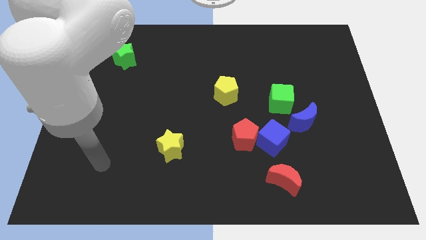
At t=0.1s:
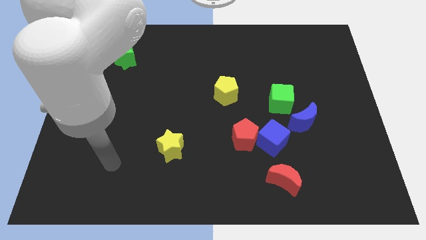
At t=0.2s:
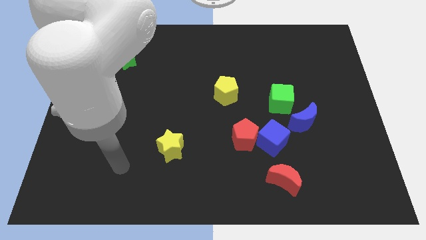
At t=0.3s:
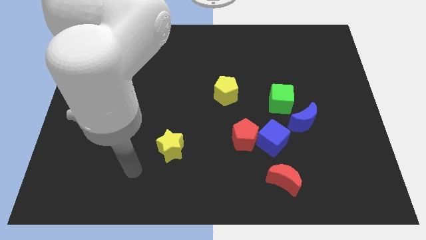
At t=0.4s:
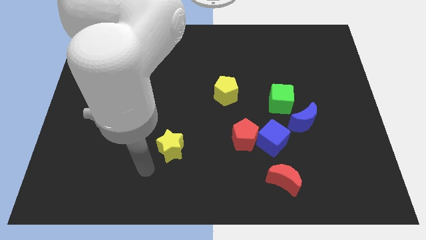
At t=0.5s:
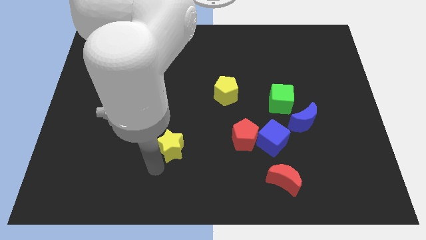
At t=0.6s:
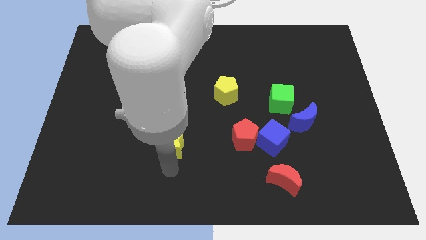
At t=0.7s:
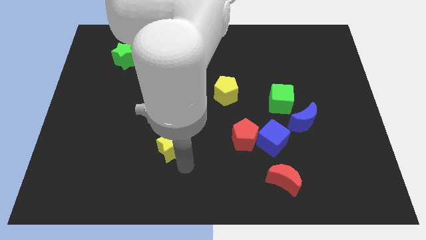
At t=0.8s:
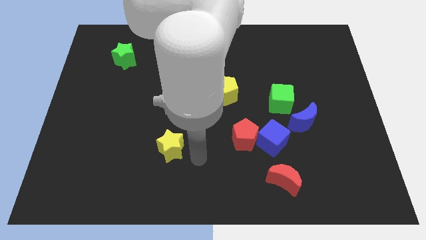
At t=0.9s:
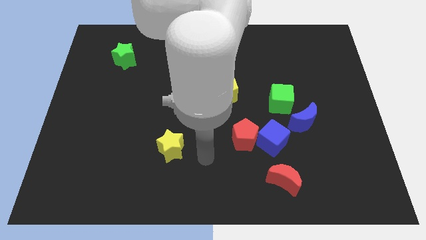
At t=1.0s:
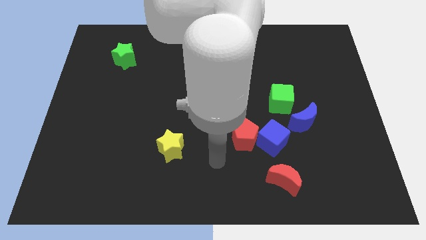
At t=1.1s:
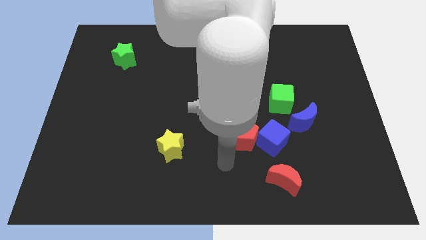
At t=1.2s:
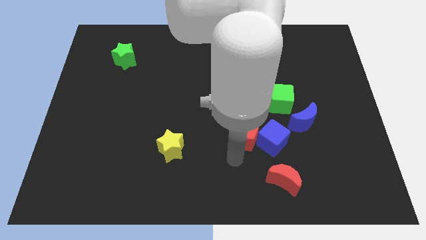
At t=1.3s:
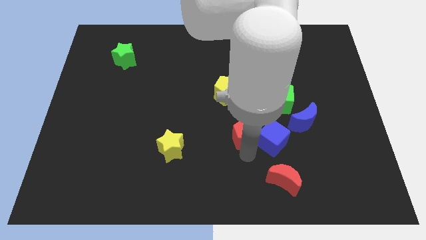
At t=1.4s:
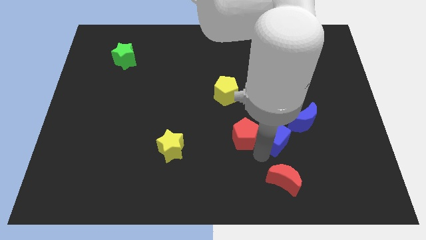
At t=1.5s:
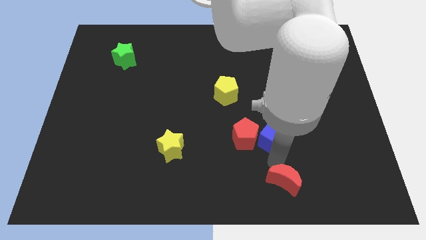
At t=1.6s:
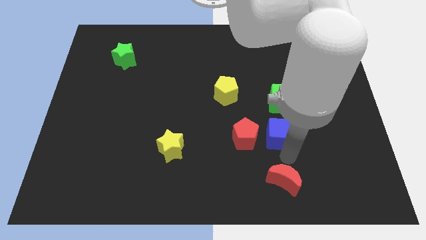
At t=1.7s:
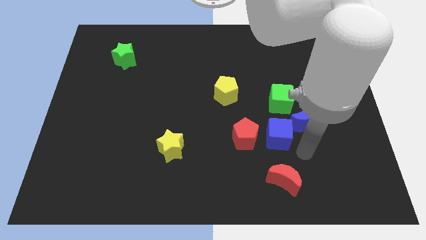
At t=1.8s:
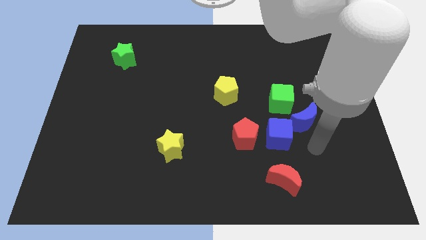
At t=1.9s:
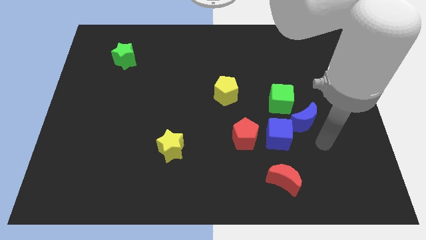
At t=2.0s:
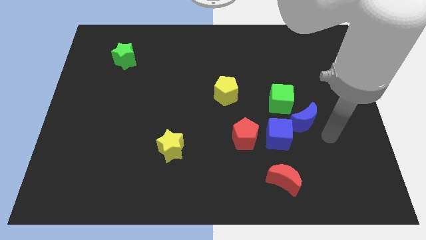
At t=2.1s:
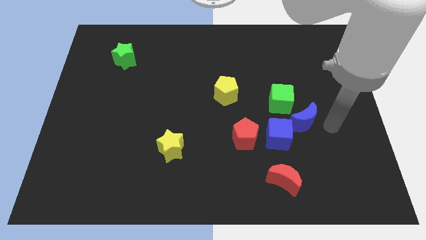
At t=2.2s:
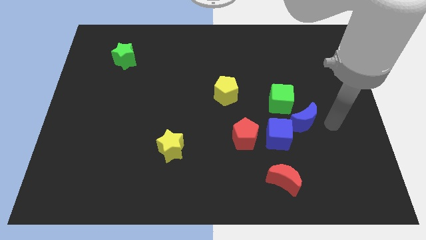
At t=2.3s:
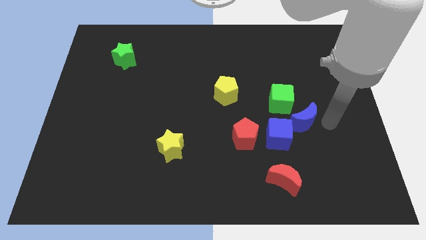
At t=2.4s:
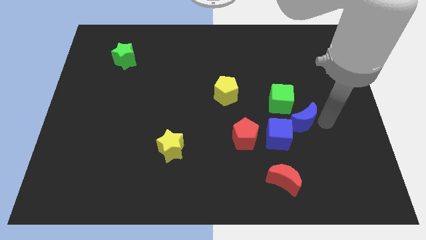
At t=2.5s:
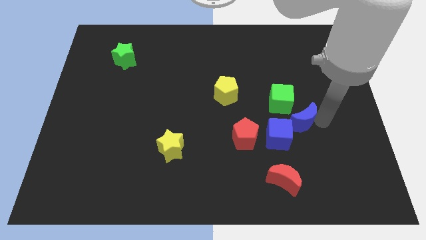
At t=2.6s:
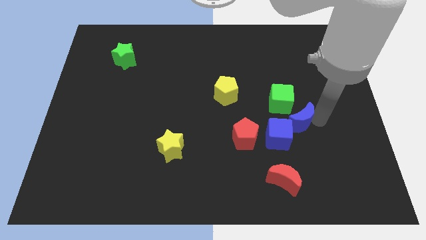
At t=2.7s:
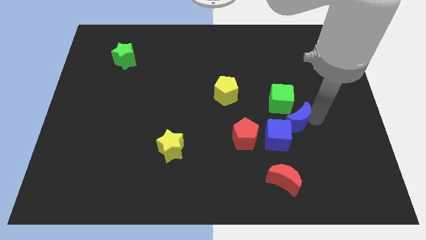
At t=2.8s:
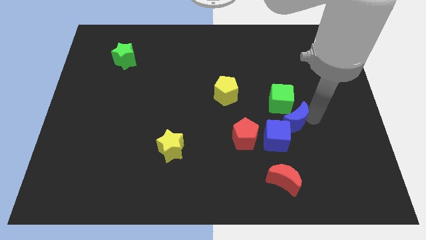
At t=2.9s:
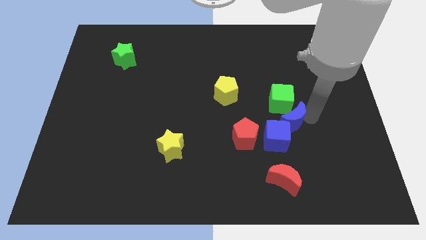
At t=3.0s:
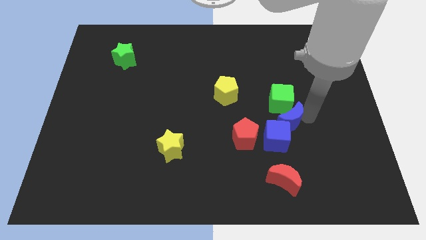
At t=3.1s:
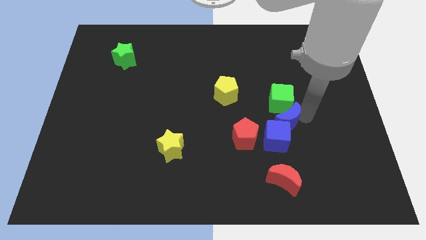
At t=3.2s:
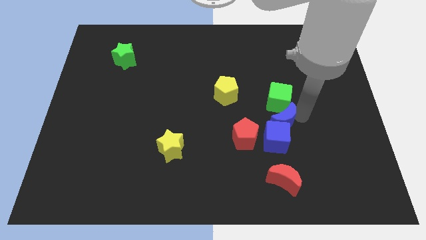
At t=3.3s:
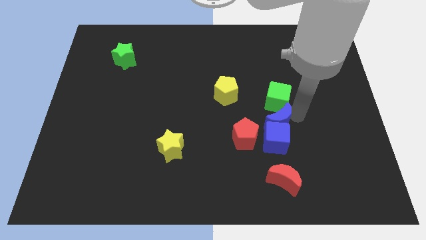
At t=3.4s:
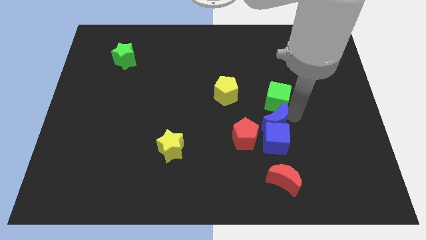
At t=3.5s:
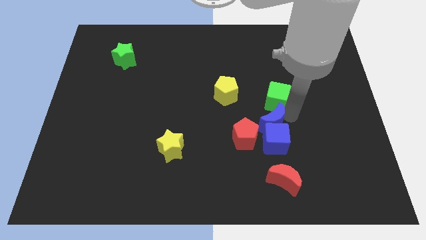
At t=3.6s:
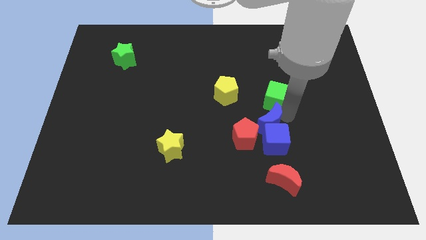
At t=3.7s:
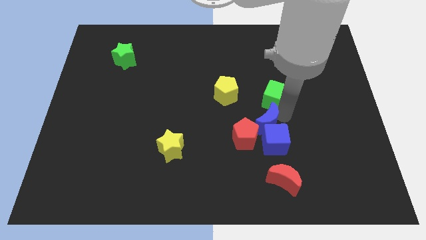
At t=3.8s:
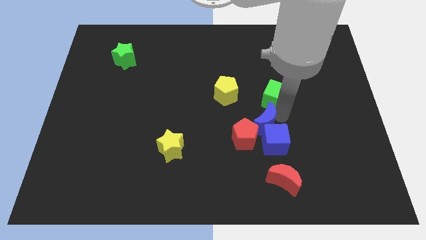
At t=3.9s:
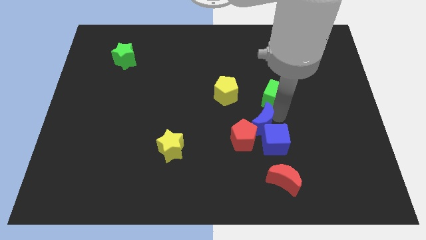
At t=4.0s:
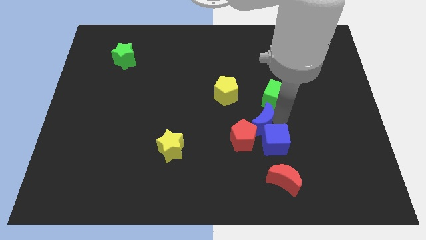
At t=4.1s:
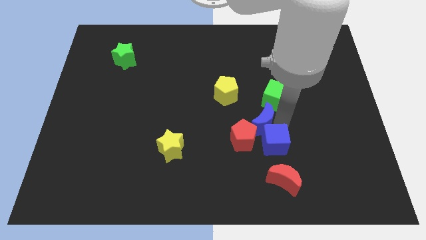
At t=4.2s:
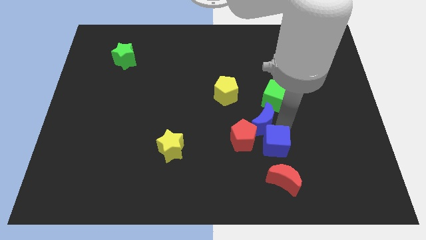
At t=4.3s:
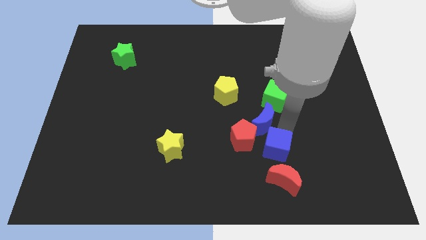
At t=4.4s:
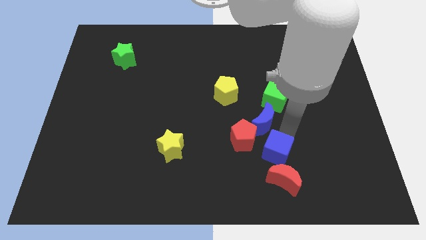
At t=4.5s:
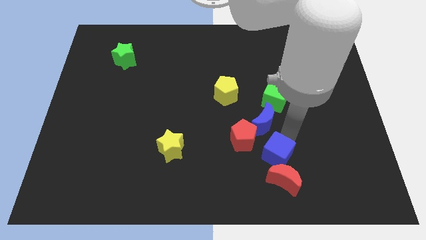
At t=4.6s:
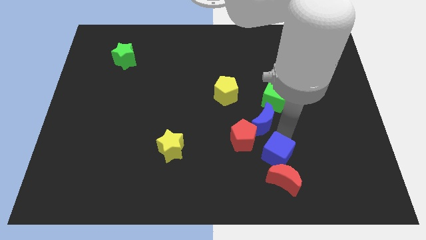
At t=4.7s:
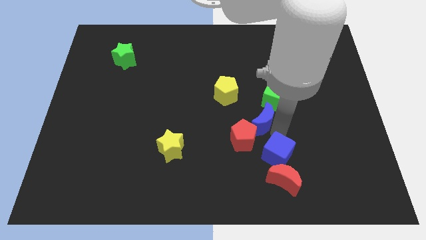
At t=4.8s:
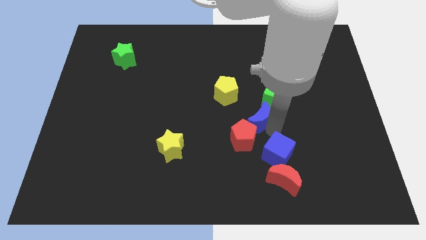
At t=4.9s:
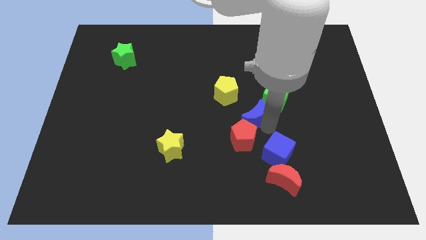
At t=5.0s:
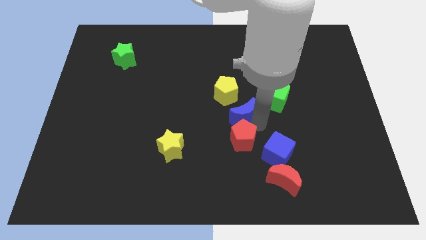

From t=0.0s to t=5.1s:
slightly slide the blue moon diagonally upwards and left

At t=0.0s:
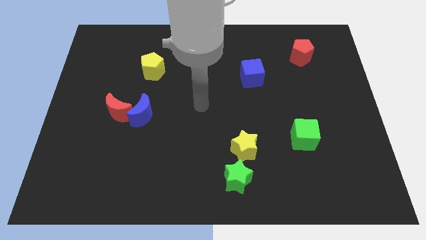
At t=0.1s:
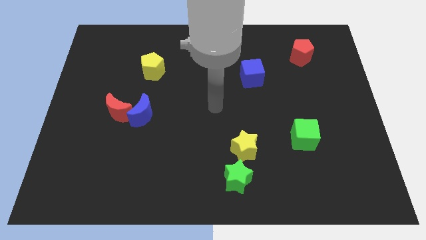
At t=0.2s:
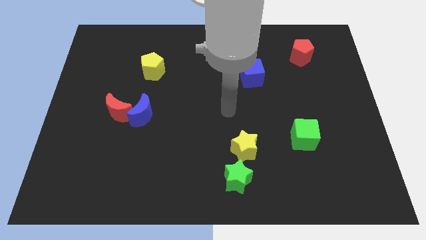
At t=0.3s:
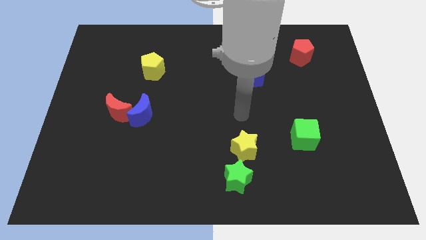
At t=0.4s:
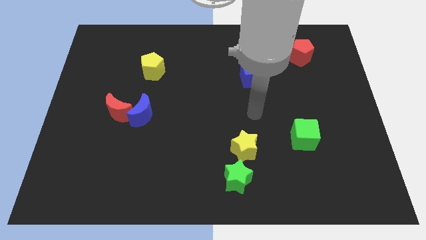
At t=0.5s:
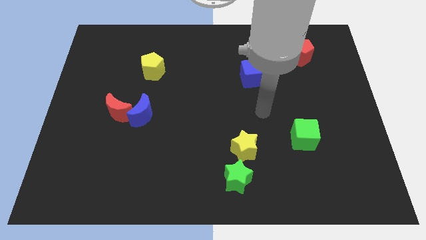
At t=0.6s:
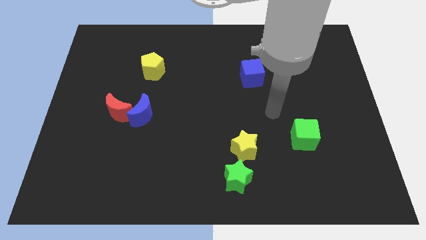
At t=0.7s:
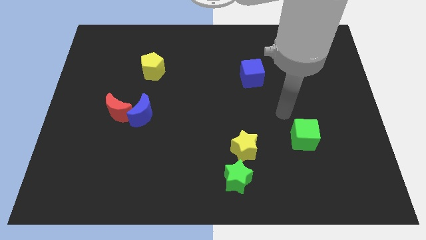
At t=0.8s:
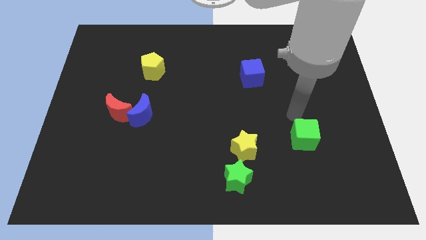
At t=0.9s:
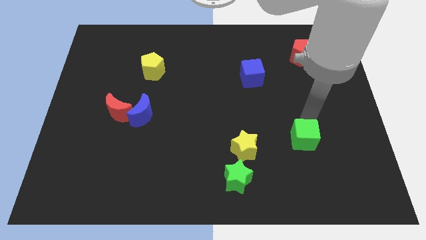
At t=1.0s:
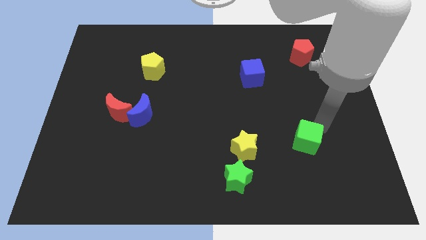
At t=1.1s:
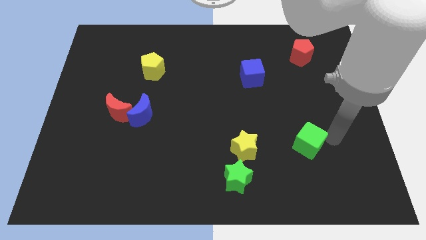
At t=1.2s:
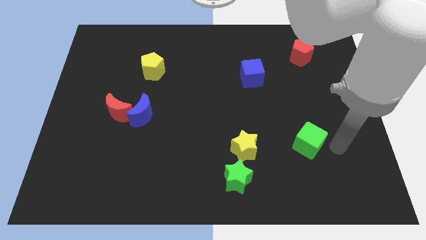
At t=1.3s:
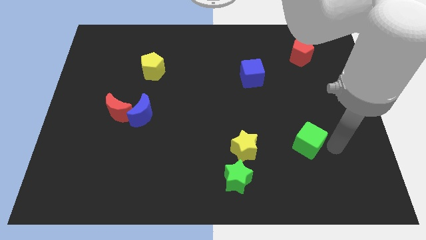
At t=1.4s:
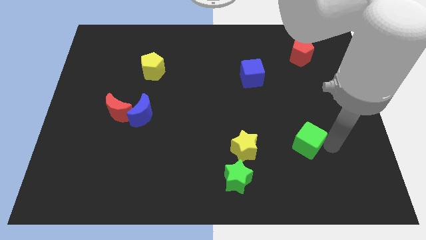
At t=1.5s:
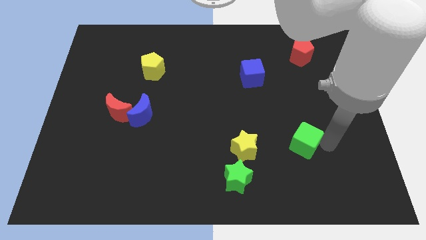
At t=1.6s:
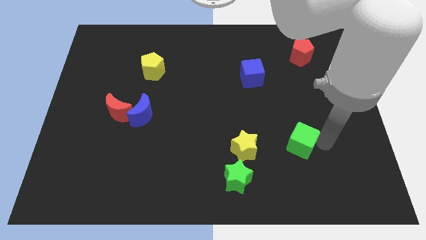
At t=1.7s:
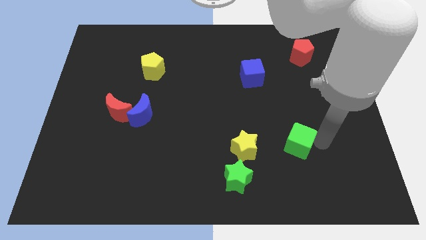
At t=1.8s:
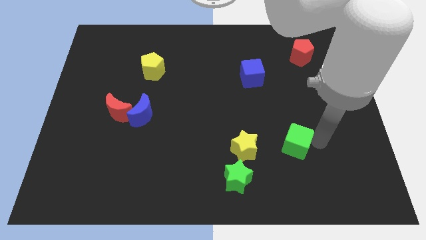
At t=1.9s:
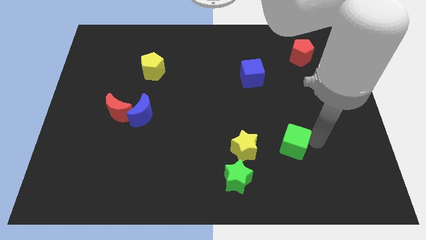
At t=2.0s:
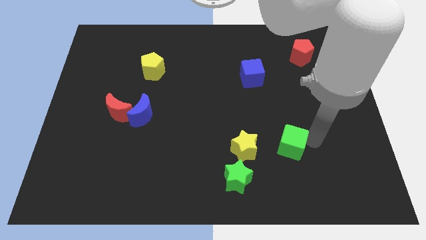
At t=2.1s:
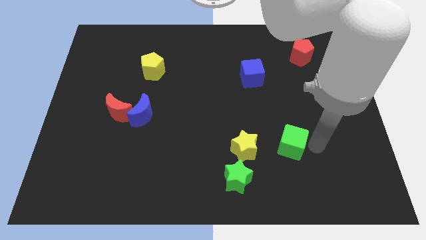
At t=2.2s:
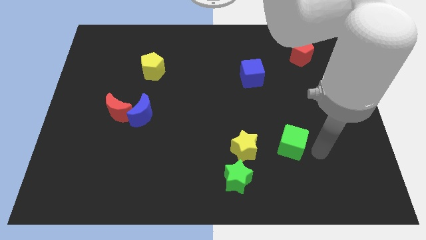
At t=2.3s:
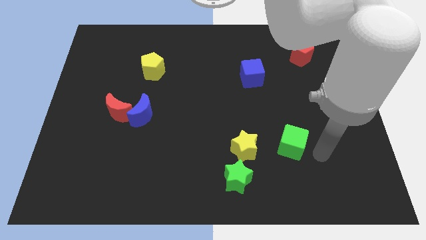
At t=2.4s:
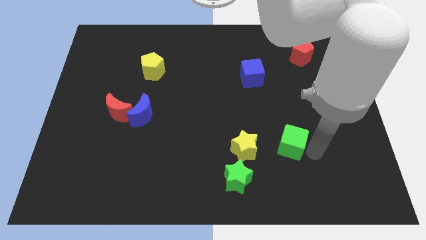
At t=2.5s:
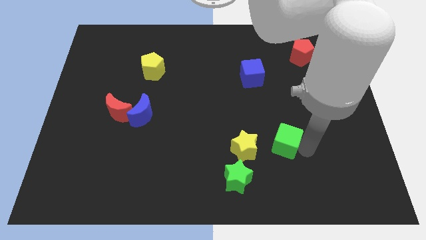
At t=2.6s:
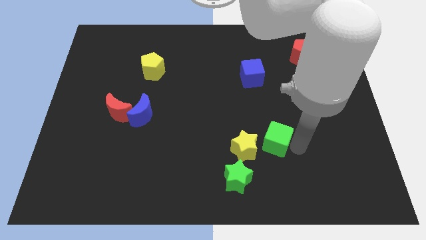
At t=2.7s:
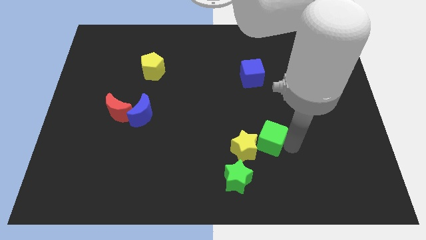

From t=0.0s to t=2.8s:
slide the green cube to the left slightly
